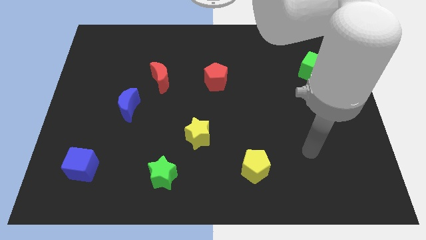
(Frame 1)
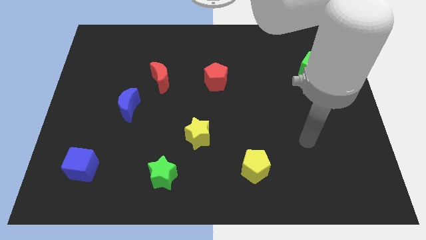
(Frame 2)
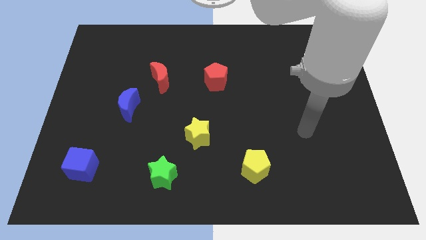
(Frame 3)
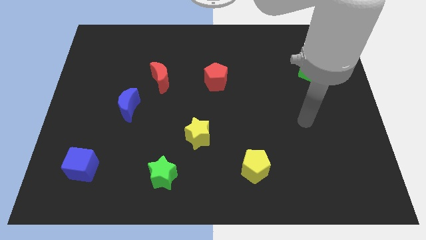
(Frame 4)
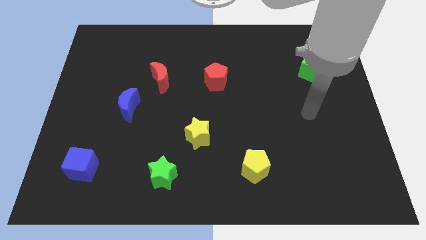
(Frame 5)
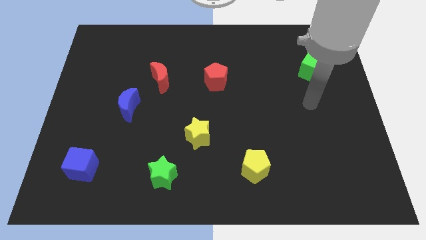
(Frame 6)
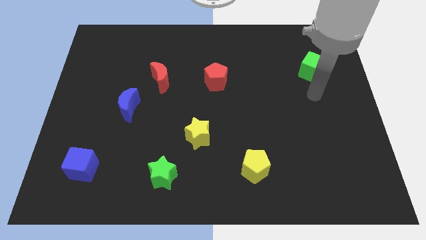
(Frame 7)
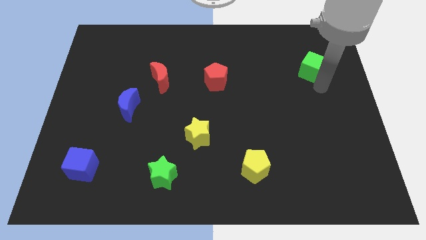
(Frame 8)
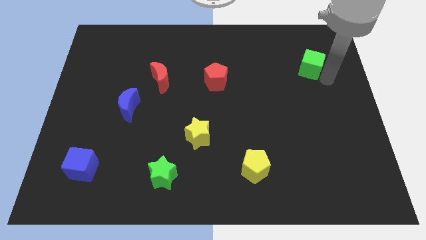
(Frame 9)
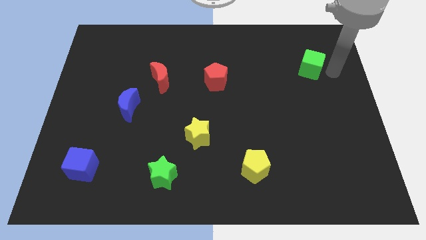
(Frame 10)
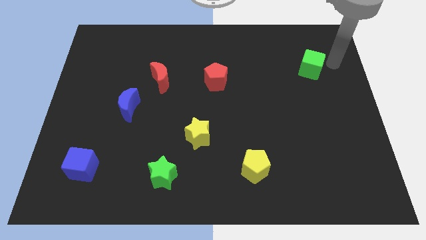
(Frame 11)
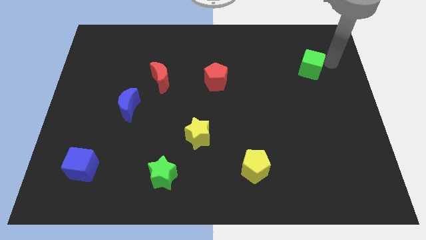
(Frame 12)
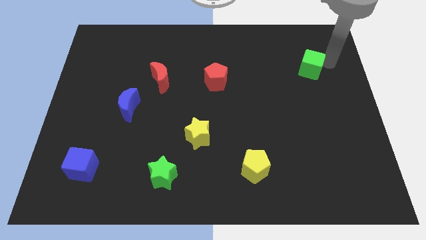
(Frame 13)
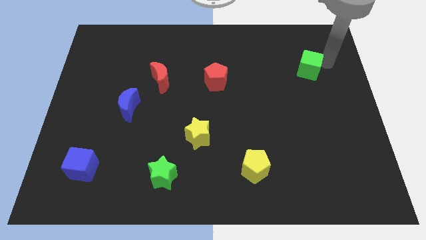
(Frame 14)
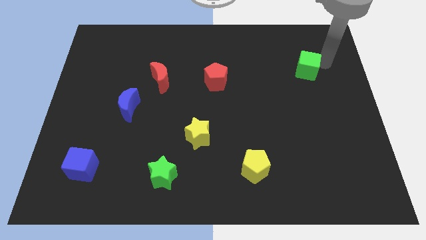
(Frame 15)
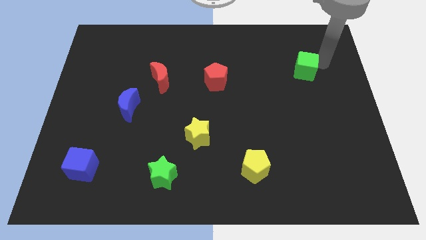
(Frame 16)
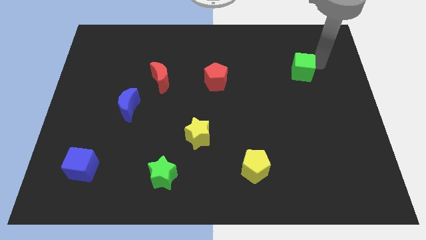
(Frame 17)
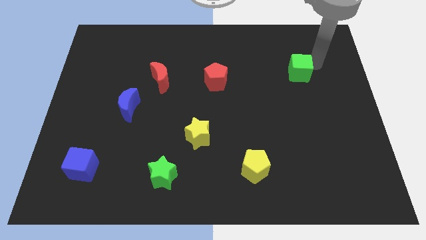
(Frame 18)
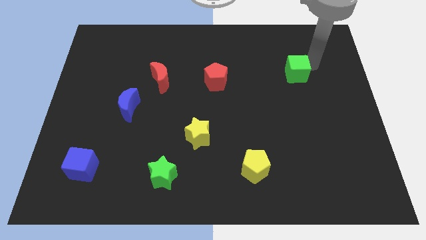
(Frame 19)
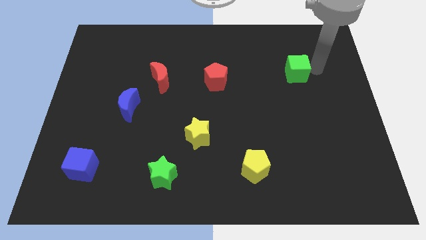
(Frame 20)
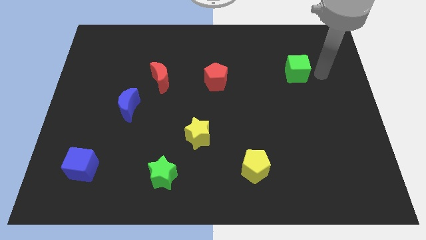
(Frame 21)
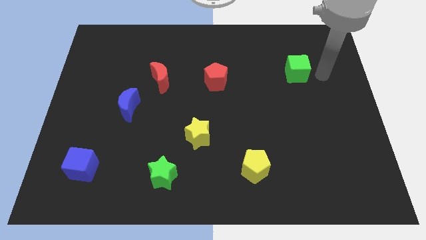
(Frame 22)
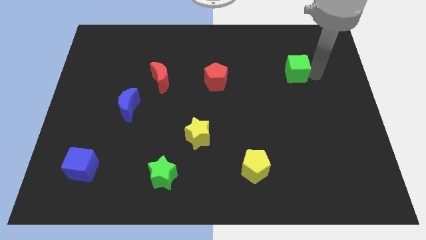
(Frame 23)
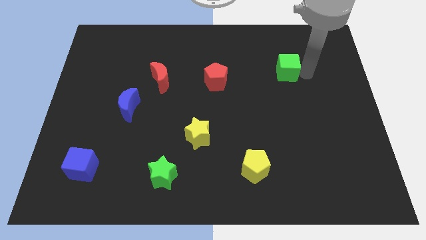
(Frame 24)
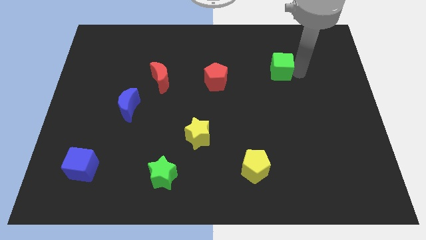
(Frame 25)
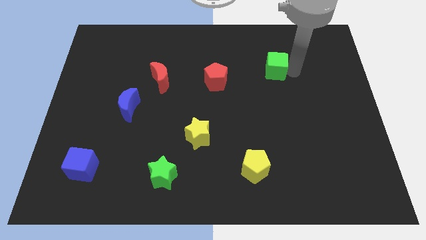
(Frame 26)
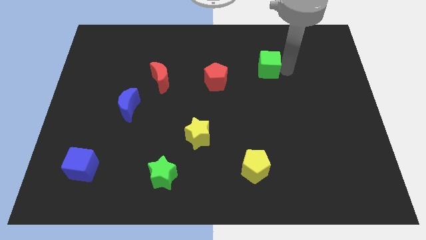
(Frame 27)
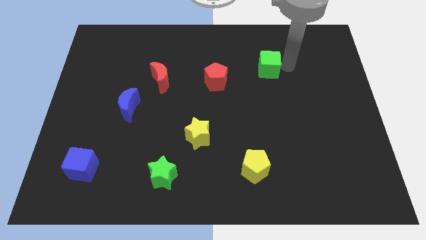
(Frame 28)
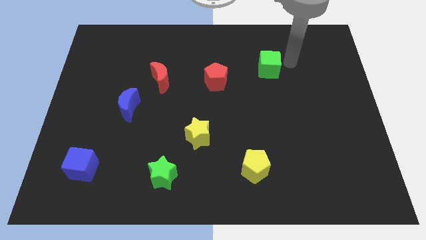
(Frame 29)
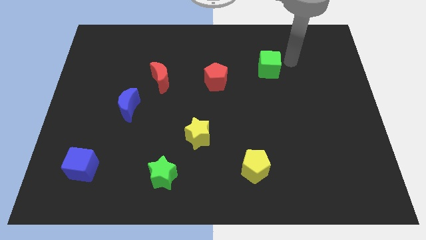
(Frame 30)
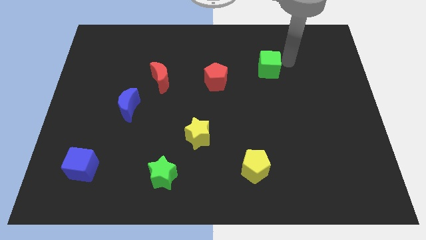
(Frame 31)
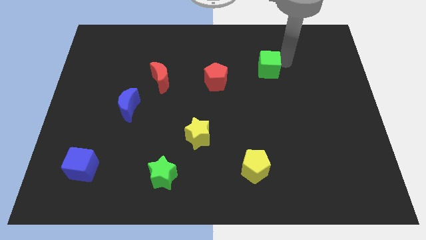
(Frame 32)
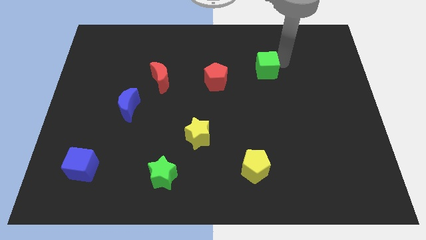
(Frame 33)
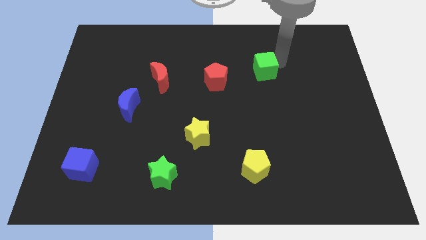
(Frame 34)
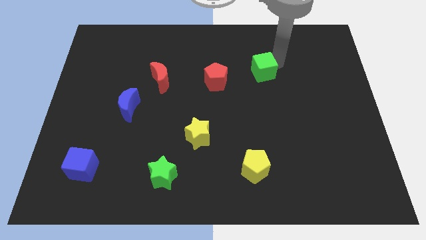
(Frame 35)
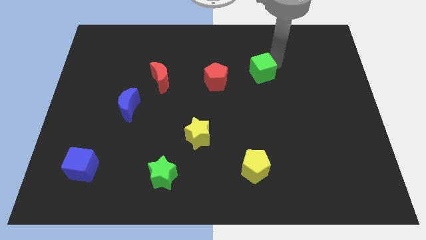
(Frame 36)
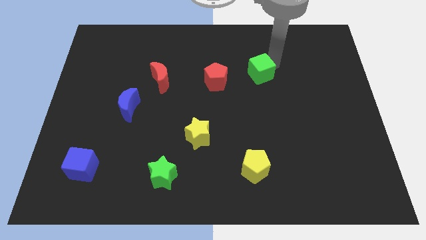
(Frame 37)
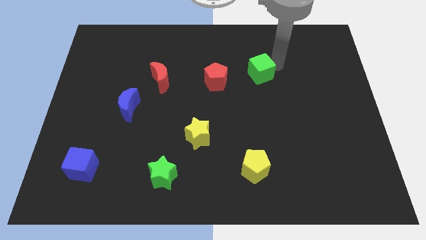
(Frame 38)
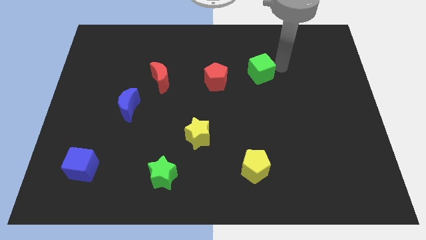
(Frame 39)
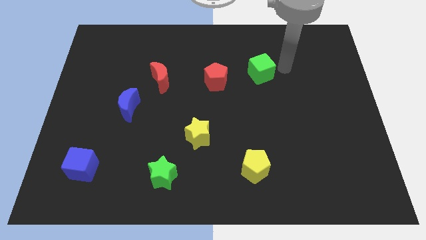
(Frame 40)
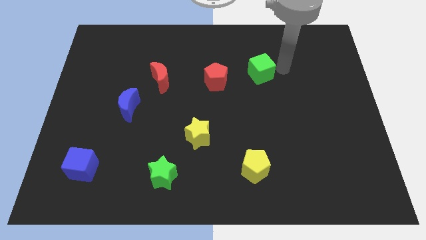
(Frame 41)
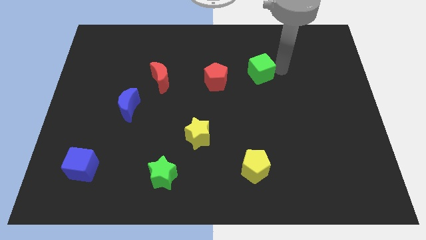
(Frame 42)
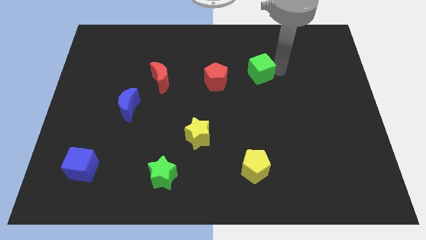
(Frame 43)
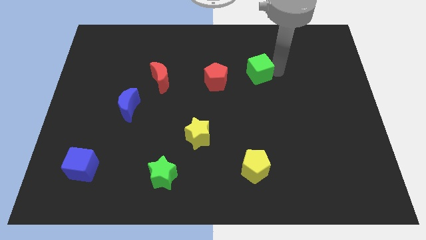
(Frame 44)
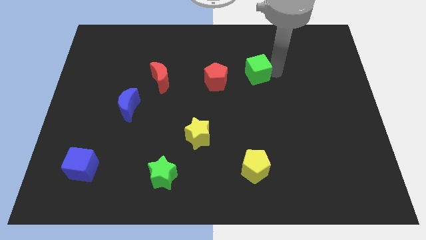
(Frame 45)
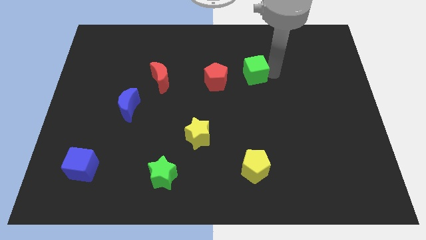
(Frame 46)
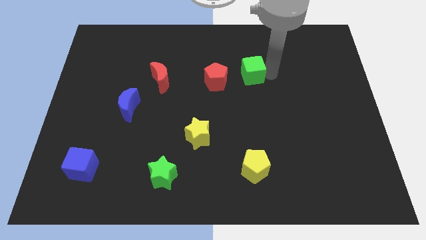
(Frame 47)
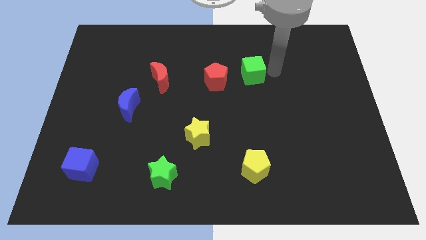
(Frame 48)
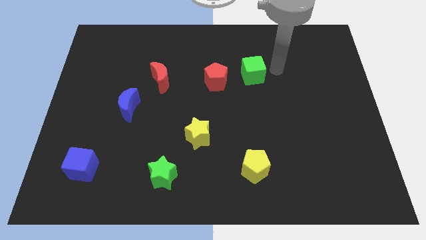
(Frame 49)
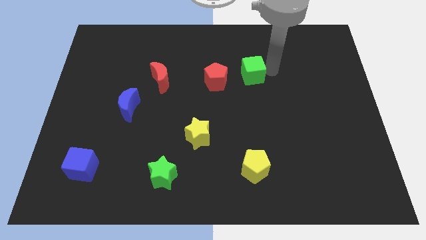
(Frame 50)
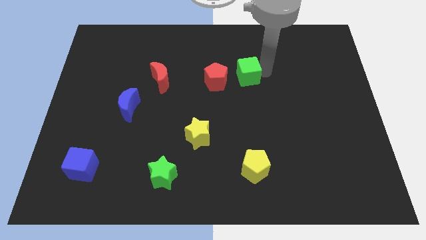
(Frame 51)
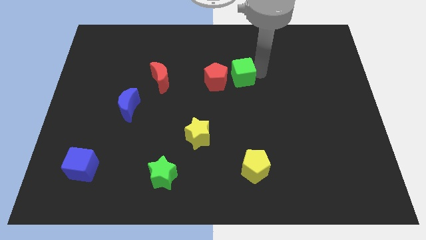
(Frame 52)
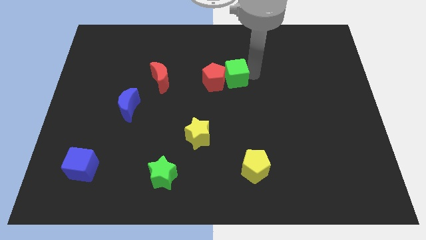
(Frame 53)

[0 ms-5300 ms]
push the green cube next to the red pentagon

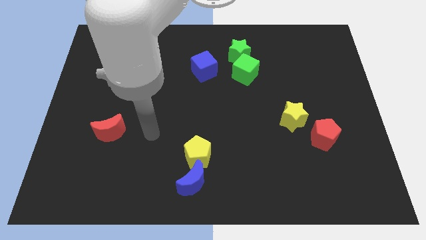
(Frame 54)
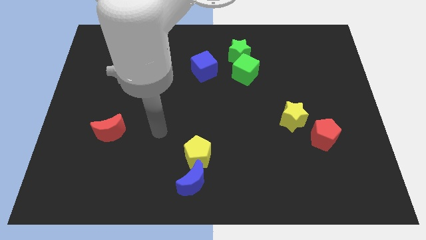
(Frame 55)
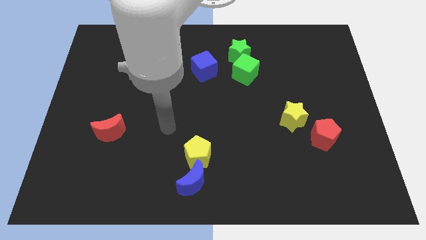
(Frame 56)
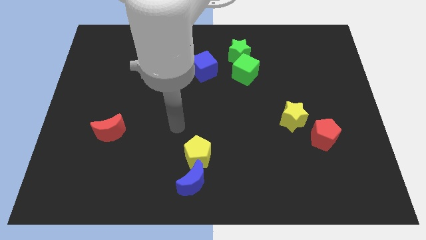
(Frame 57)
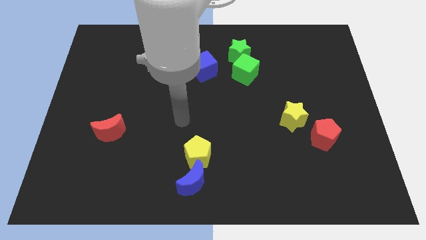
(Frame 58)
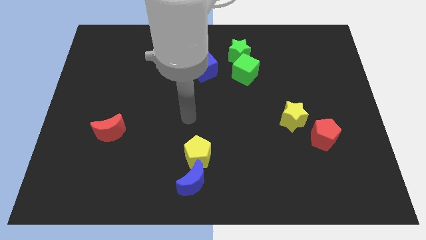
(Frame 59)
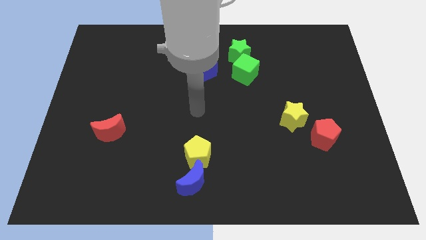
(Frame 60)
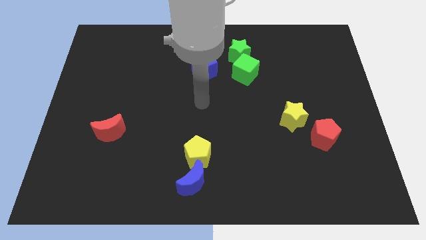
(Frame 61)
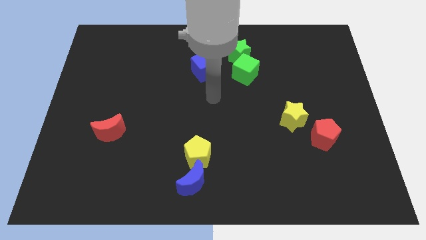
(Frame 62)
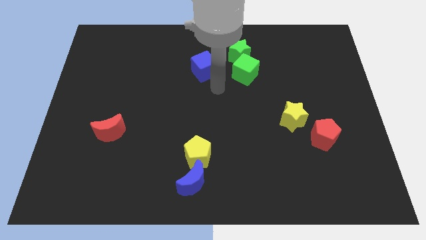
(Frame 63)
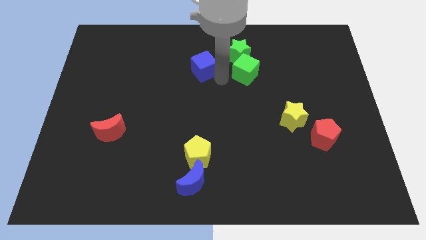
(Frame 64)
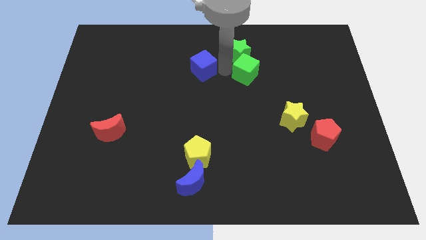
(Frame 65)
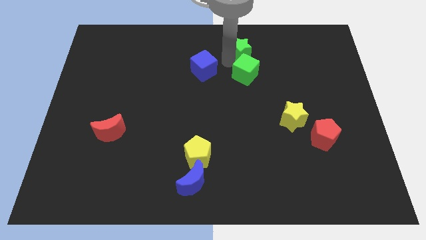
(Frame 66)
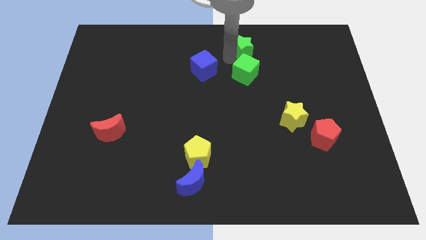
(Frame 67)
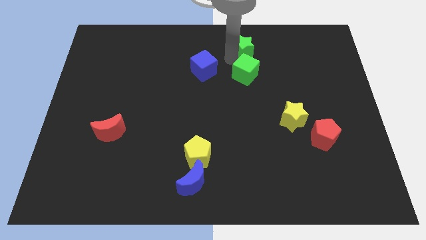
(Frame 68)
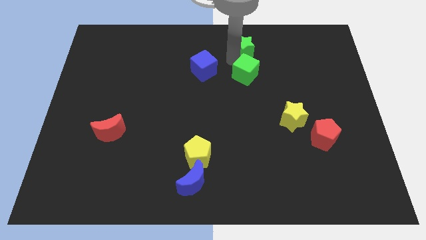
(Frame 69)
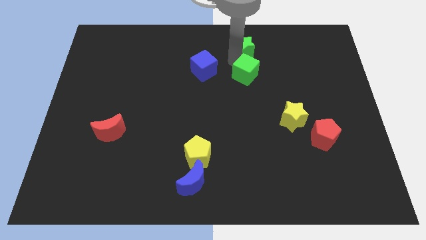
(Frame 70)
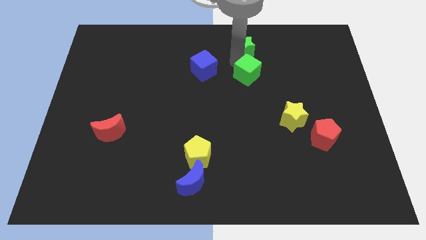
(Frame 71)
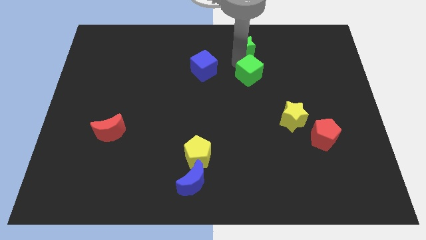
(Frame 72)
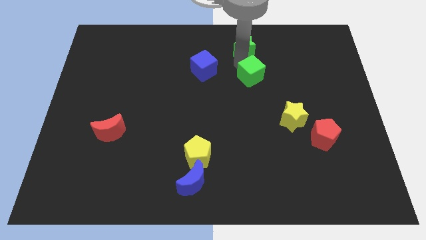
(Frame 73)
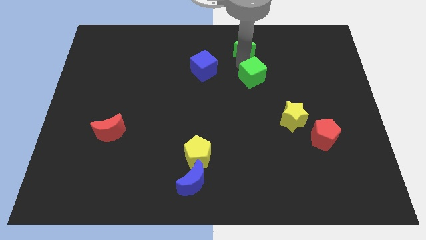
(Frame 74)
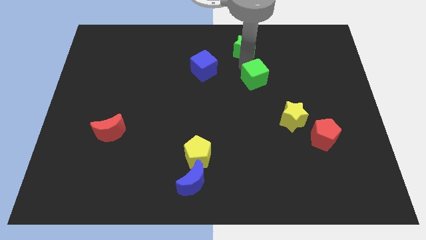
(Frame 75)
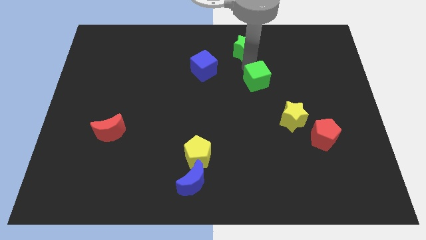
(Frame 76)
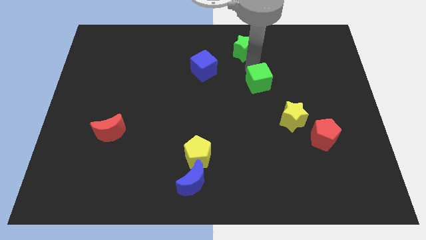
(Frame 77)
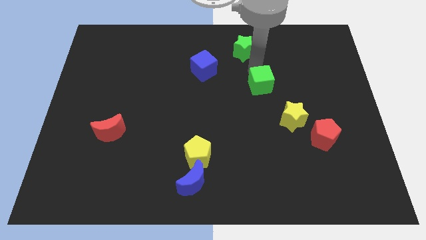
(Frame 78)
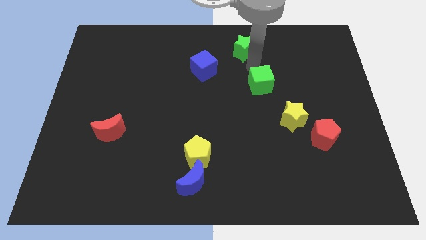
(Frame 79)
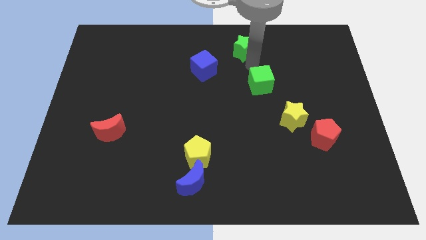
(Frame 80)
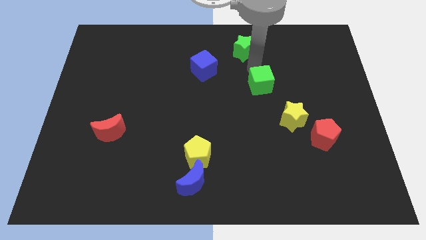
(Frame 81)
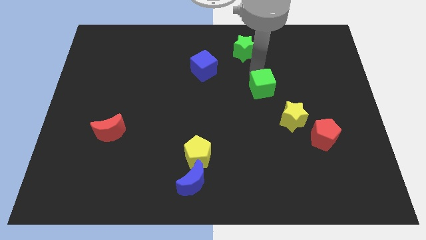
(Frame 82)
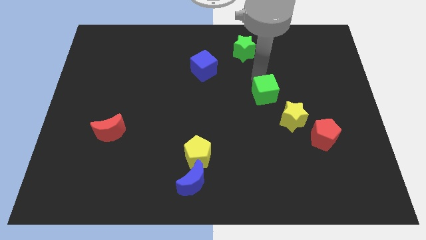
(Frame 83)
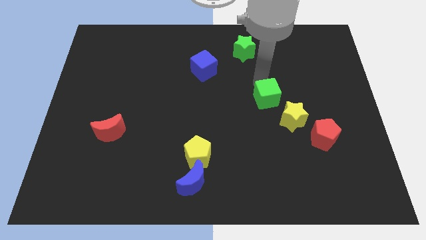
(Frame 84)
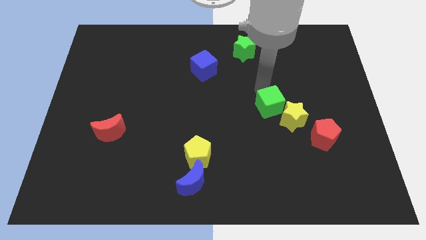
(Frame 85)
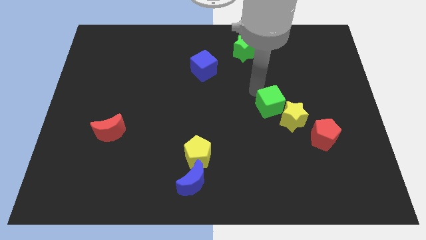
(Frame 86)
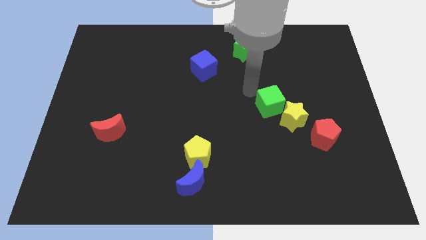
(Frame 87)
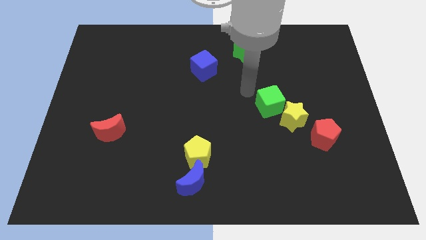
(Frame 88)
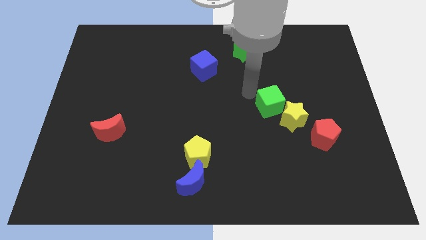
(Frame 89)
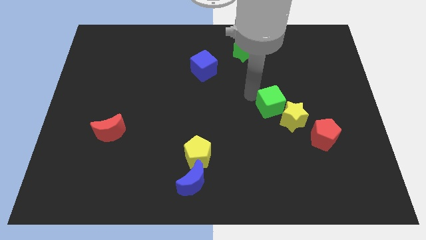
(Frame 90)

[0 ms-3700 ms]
slide the green cube next to the yellow star
